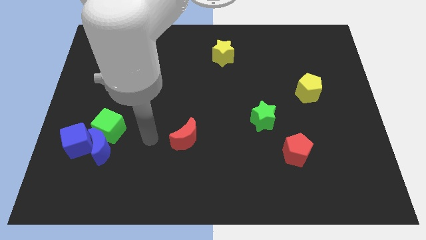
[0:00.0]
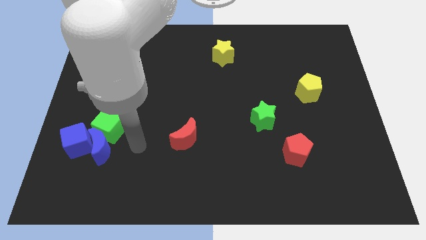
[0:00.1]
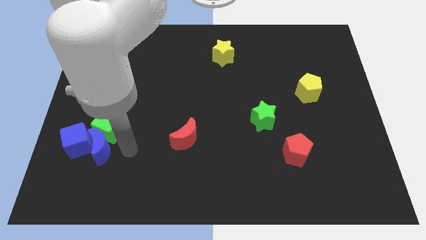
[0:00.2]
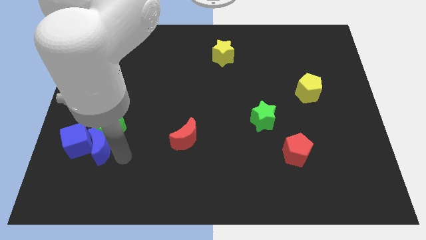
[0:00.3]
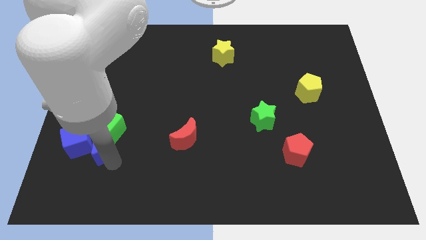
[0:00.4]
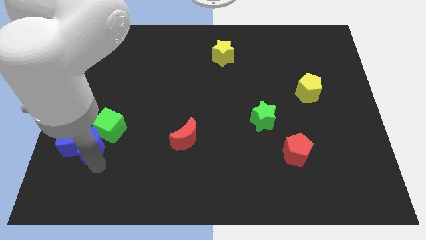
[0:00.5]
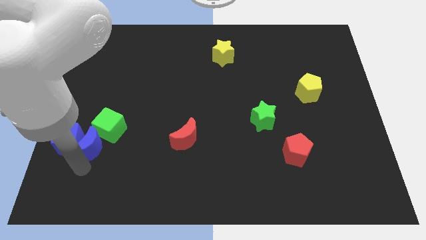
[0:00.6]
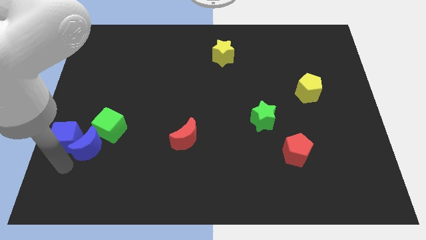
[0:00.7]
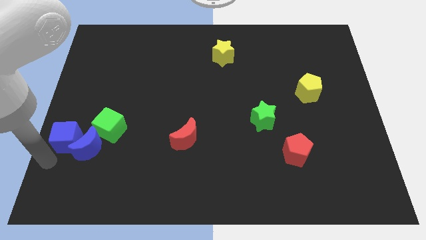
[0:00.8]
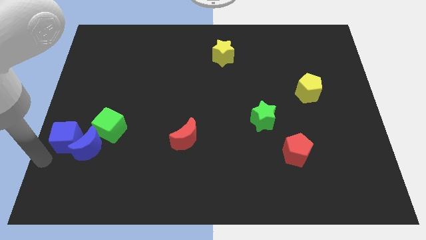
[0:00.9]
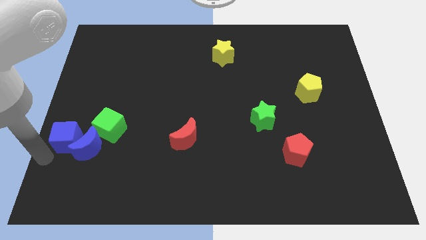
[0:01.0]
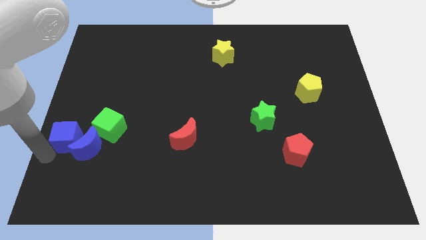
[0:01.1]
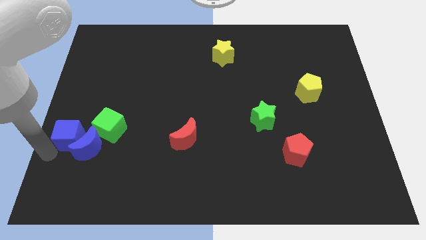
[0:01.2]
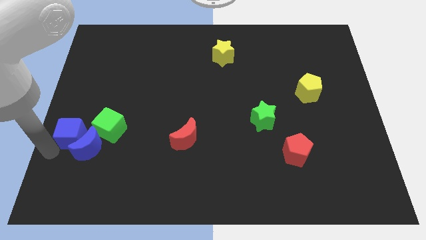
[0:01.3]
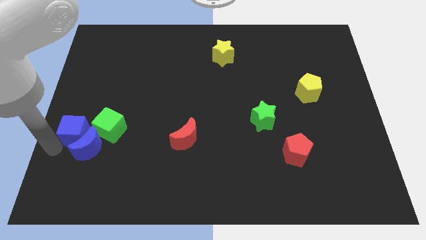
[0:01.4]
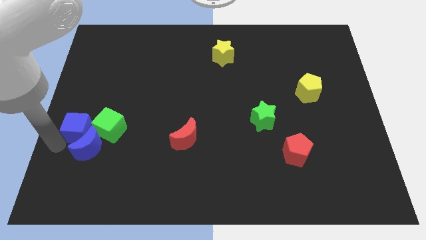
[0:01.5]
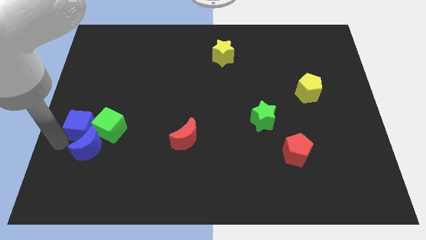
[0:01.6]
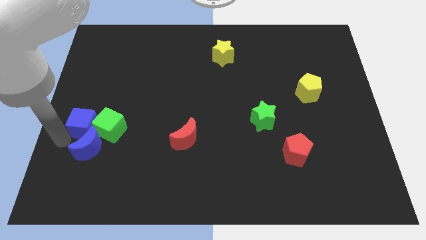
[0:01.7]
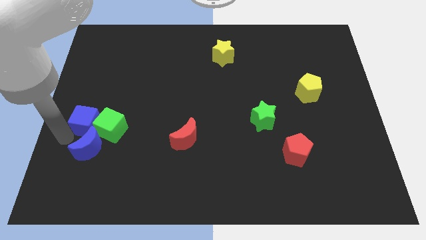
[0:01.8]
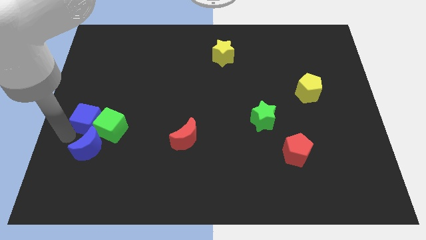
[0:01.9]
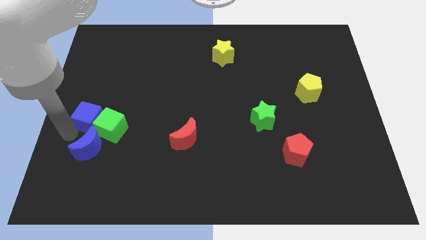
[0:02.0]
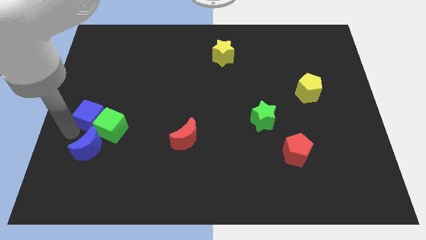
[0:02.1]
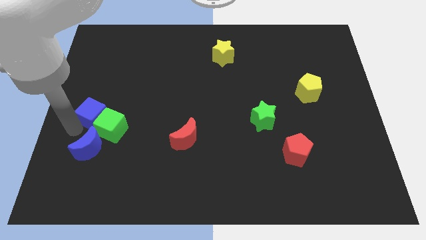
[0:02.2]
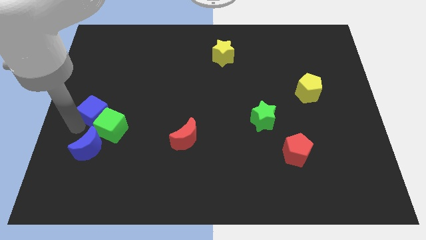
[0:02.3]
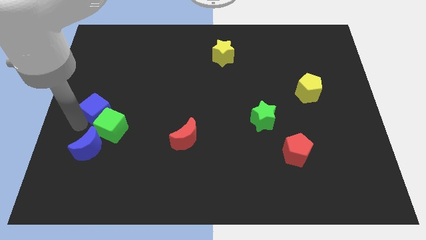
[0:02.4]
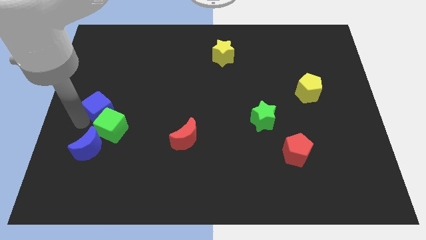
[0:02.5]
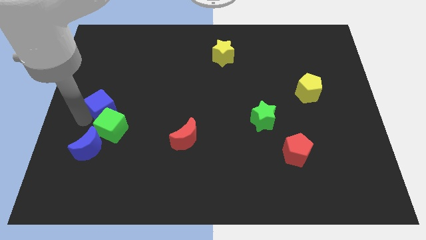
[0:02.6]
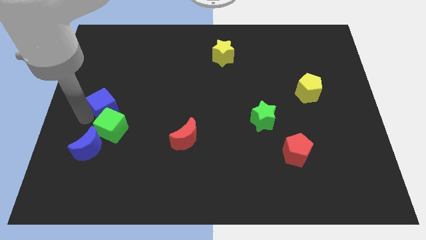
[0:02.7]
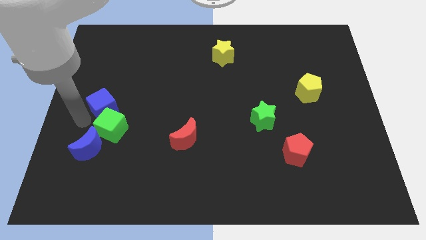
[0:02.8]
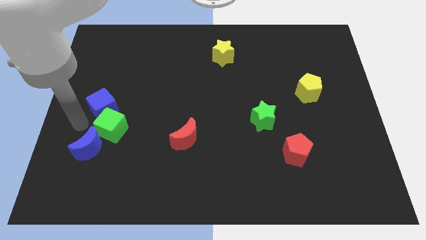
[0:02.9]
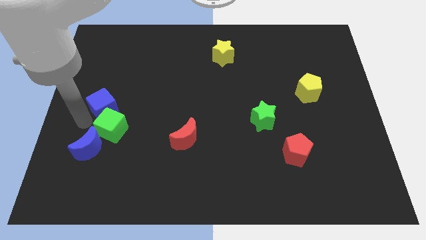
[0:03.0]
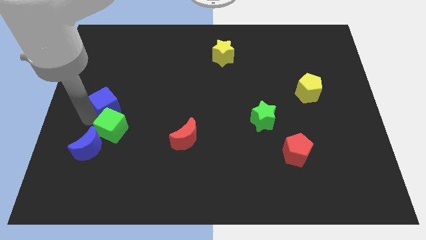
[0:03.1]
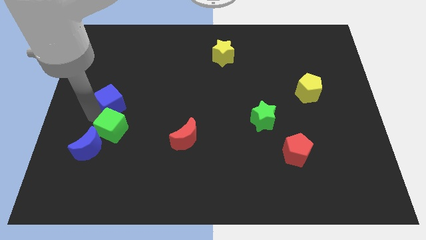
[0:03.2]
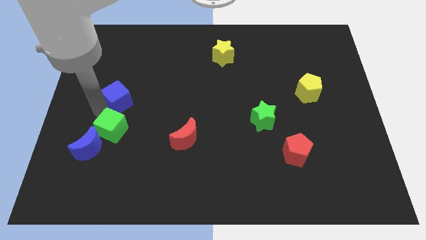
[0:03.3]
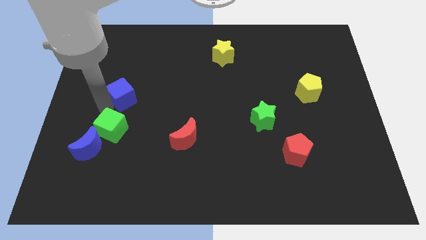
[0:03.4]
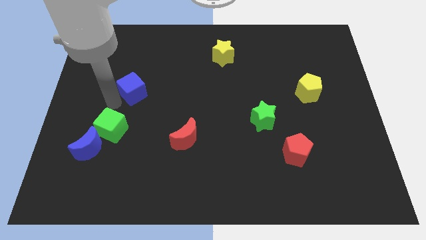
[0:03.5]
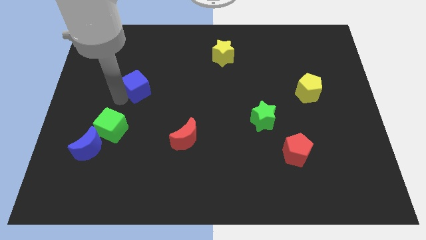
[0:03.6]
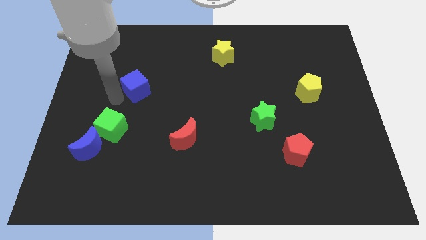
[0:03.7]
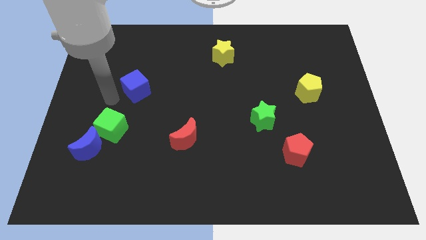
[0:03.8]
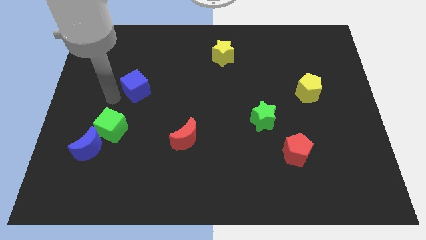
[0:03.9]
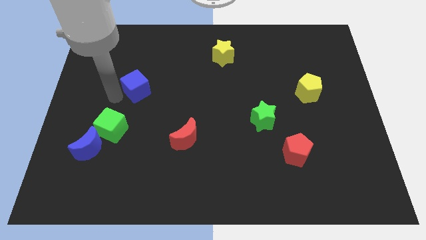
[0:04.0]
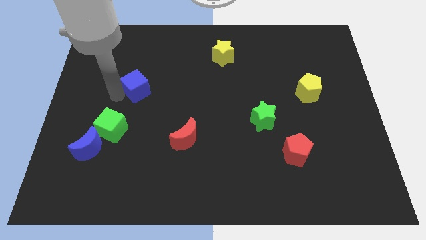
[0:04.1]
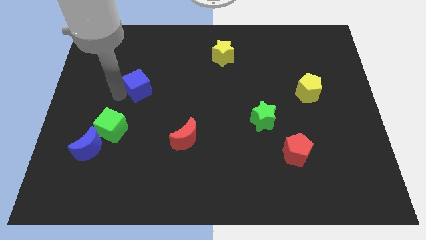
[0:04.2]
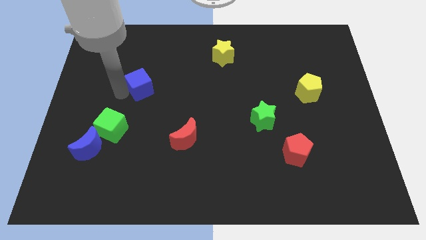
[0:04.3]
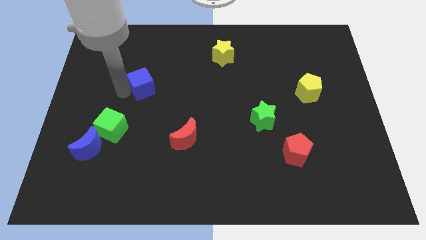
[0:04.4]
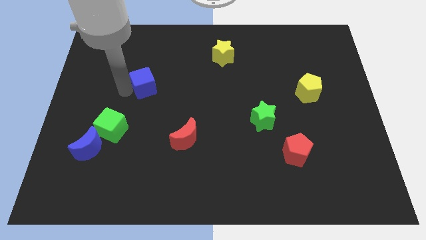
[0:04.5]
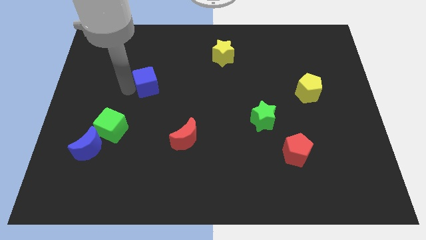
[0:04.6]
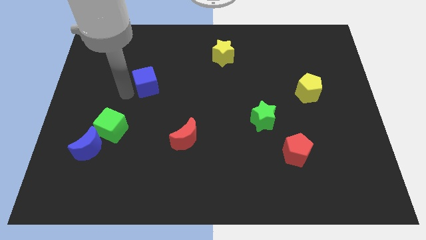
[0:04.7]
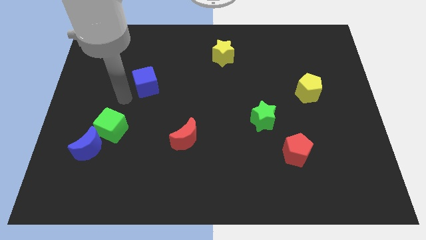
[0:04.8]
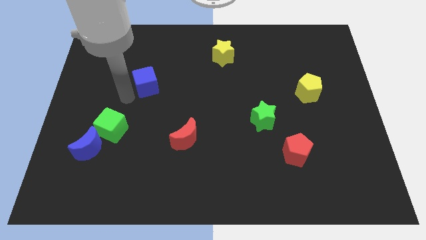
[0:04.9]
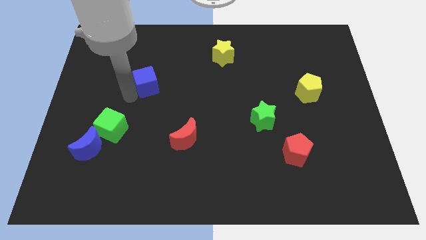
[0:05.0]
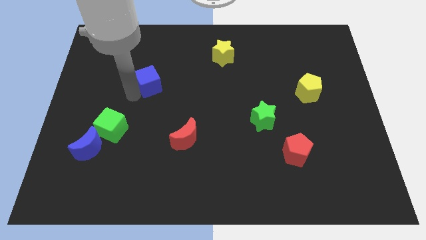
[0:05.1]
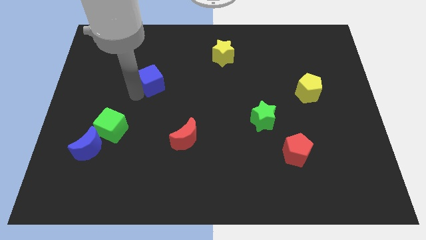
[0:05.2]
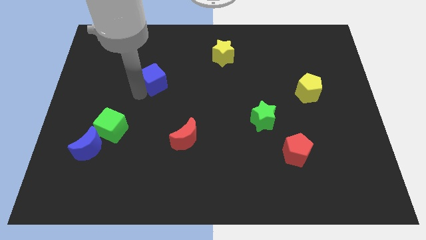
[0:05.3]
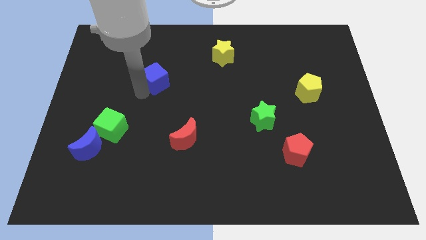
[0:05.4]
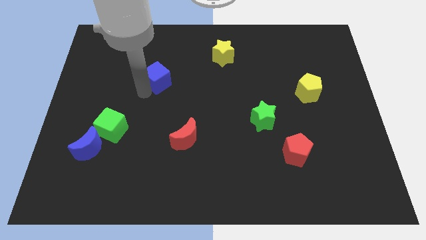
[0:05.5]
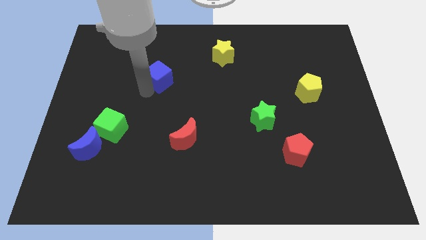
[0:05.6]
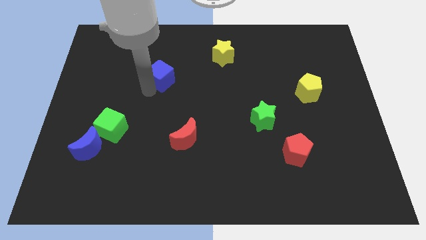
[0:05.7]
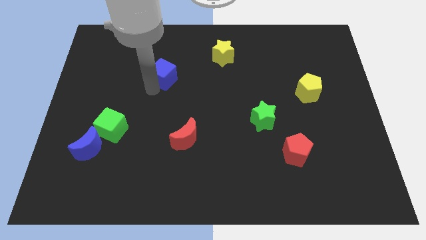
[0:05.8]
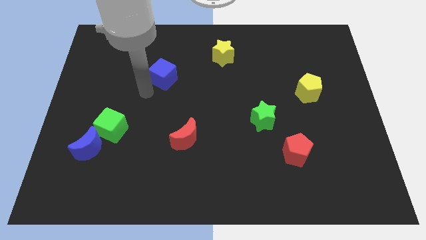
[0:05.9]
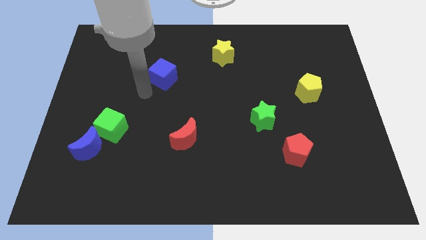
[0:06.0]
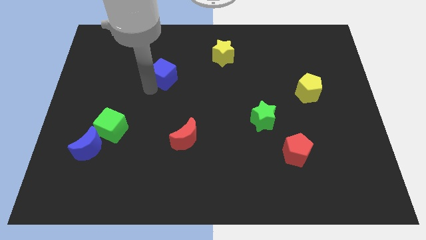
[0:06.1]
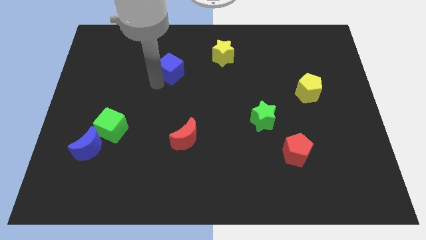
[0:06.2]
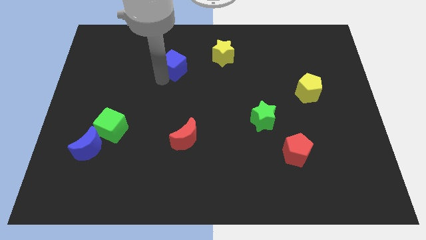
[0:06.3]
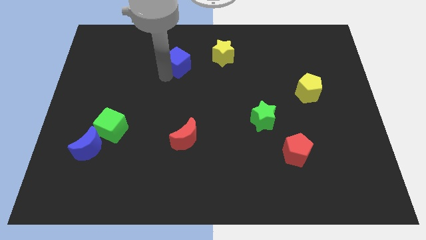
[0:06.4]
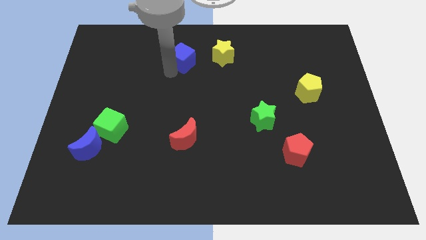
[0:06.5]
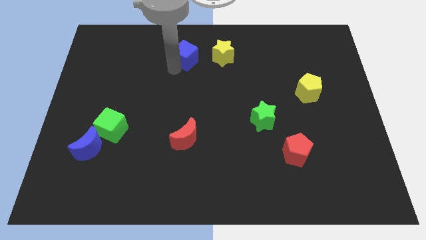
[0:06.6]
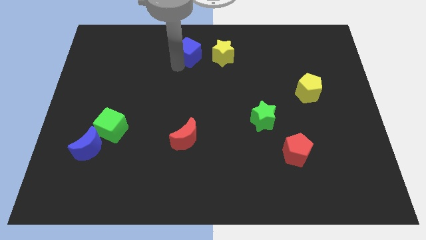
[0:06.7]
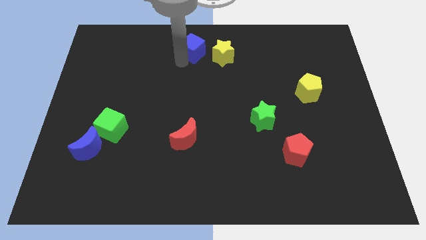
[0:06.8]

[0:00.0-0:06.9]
put the blue cube to the top side
